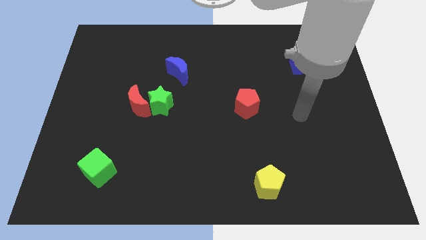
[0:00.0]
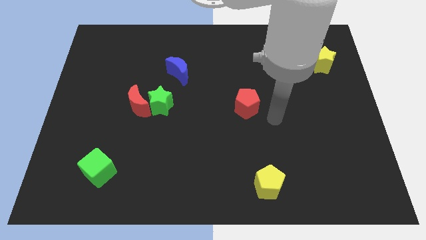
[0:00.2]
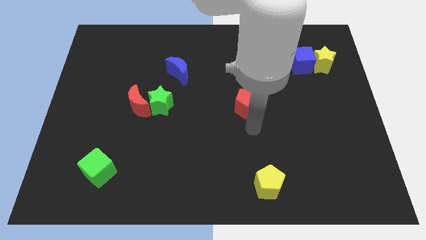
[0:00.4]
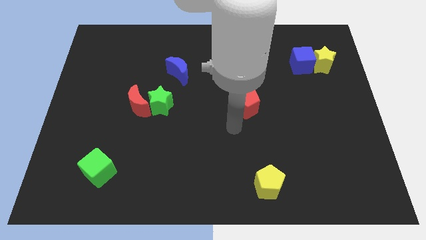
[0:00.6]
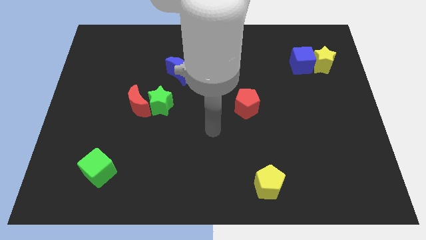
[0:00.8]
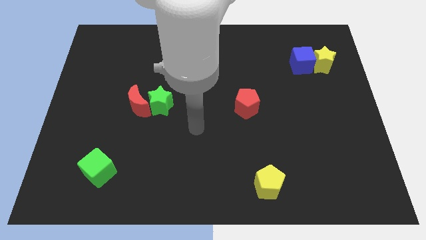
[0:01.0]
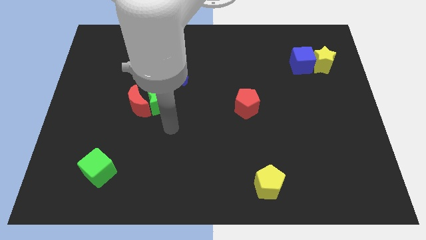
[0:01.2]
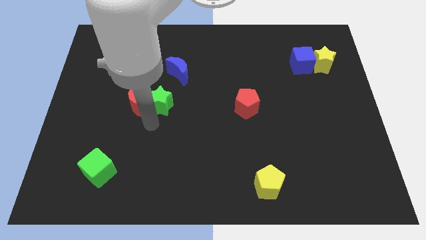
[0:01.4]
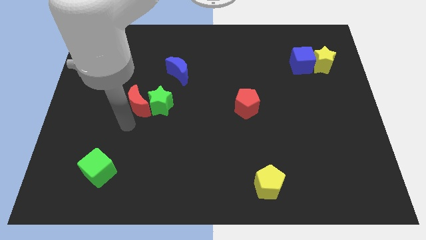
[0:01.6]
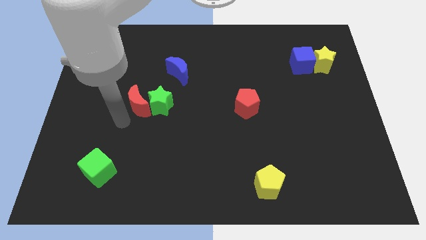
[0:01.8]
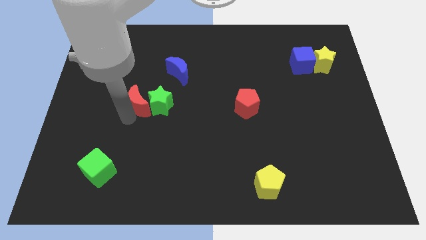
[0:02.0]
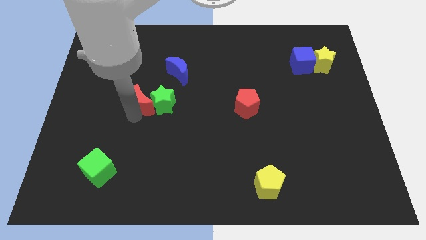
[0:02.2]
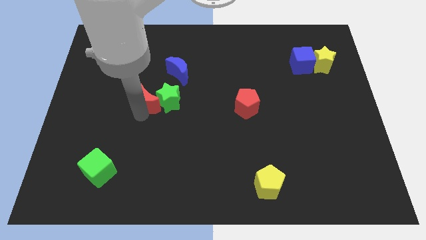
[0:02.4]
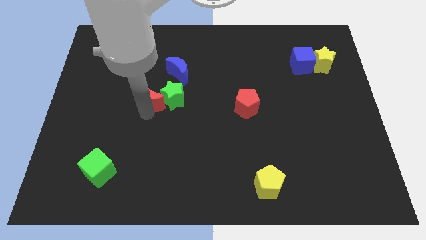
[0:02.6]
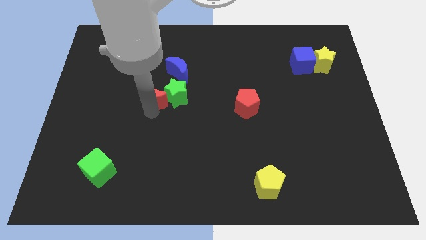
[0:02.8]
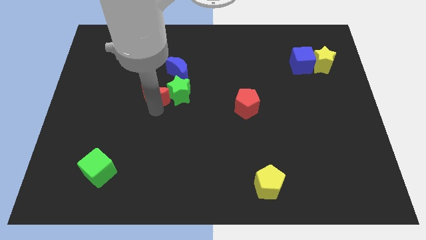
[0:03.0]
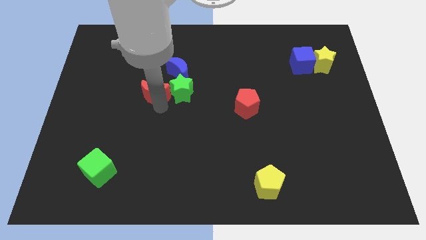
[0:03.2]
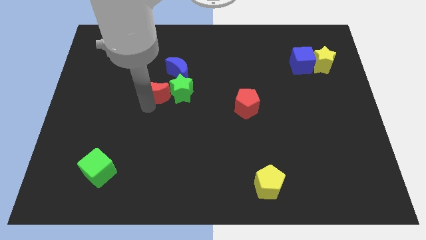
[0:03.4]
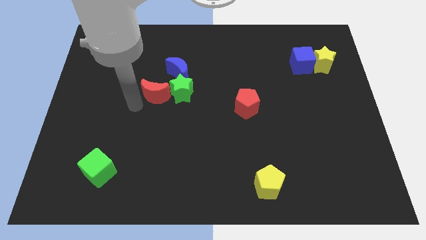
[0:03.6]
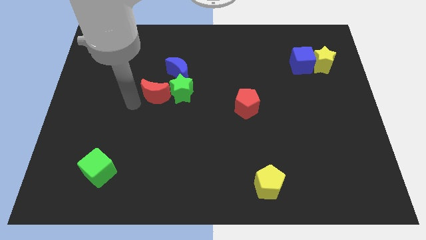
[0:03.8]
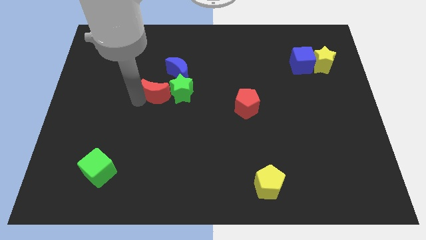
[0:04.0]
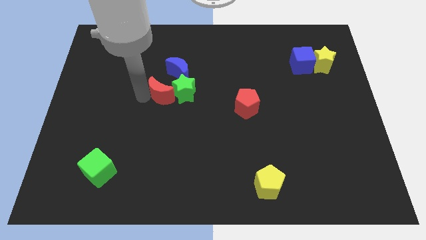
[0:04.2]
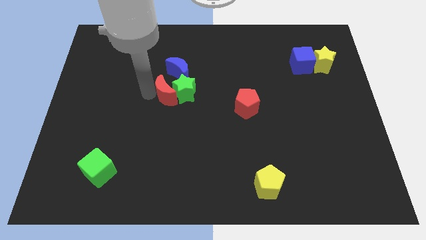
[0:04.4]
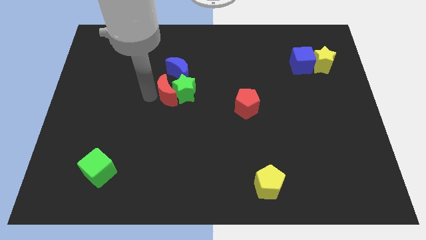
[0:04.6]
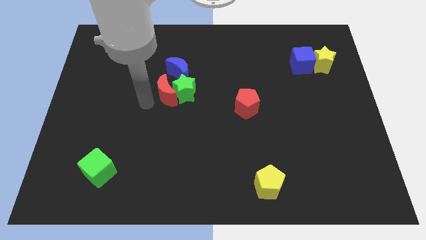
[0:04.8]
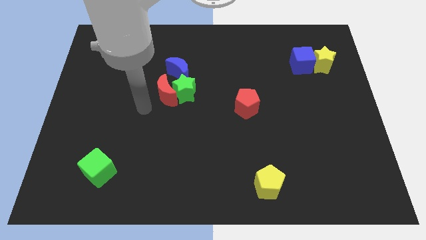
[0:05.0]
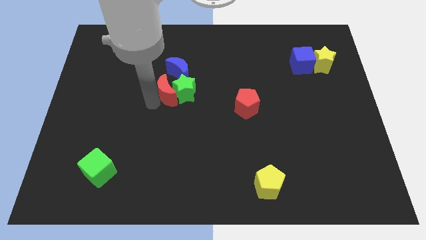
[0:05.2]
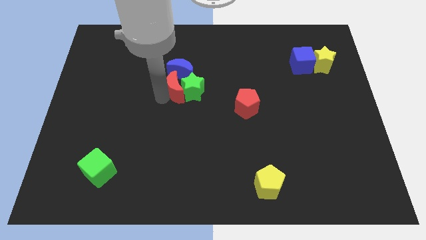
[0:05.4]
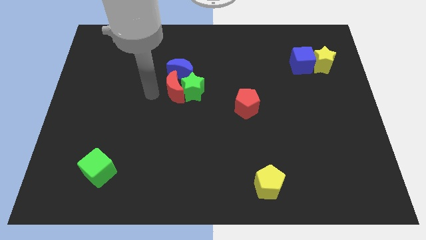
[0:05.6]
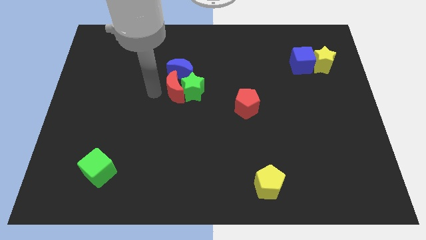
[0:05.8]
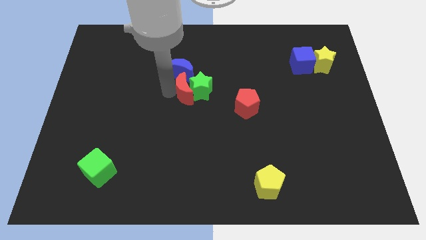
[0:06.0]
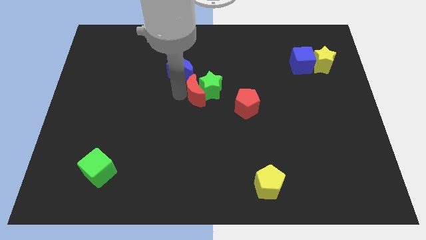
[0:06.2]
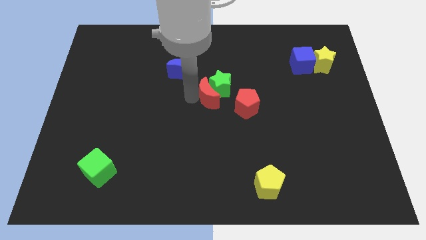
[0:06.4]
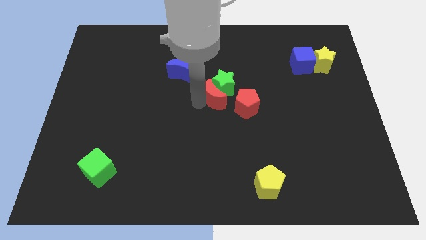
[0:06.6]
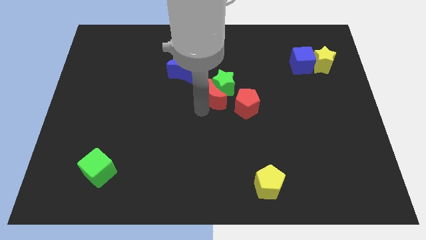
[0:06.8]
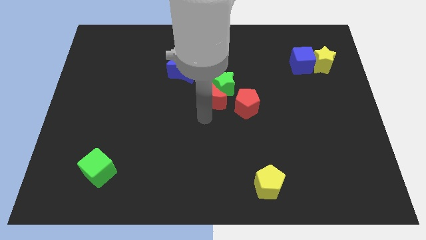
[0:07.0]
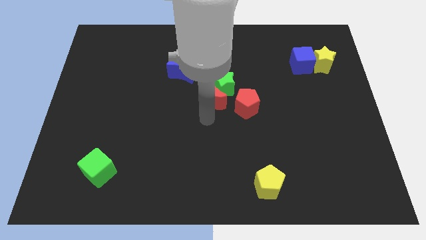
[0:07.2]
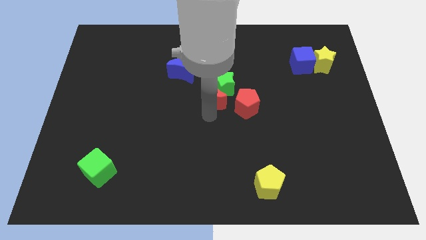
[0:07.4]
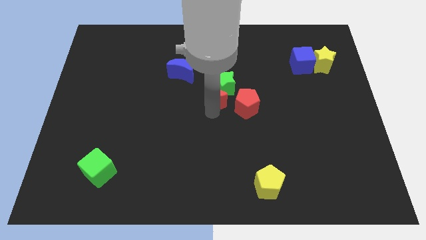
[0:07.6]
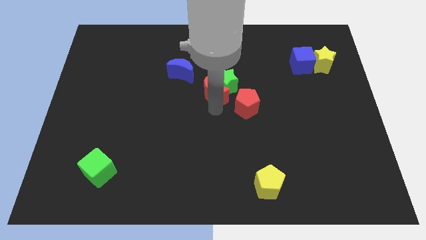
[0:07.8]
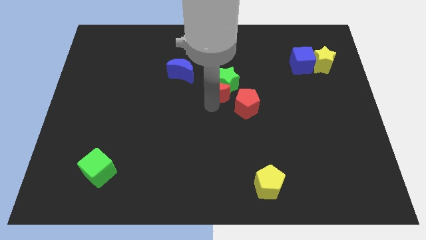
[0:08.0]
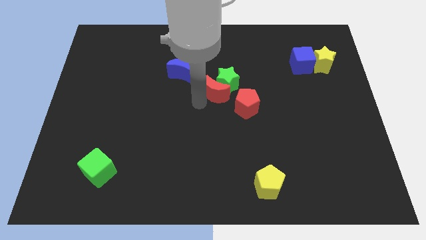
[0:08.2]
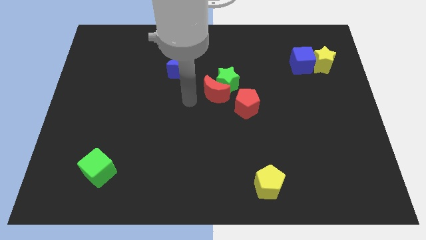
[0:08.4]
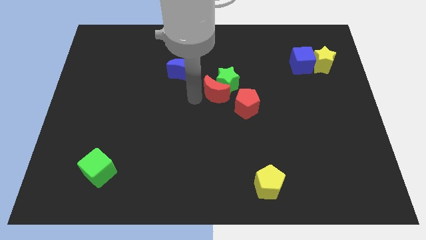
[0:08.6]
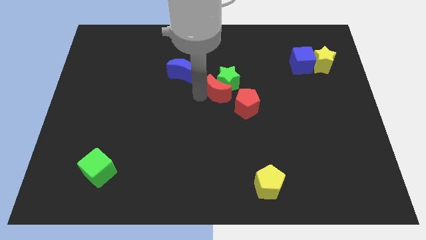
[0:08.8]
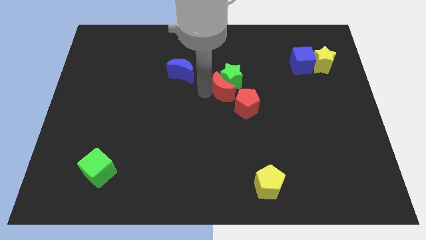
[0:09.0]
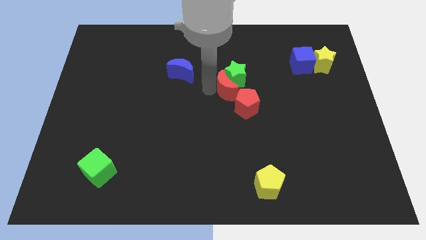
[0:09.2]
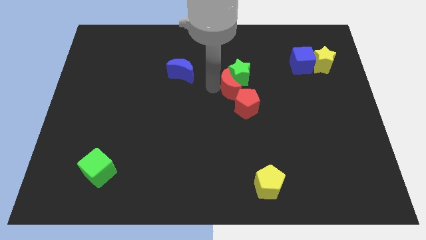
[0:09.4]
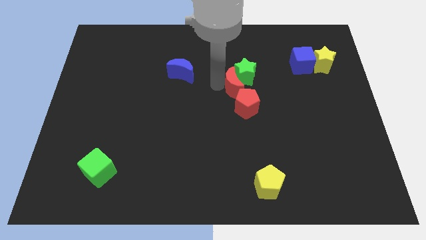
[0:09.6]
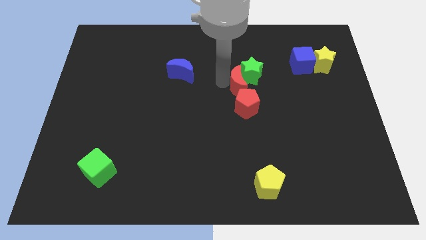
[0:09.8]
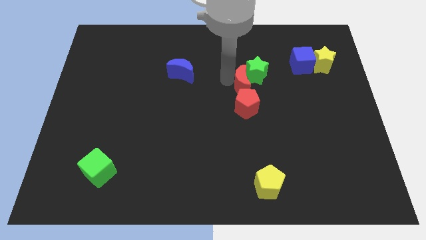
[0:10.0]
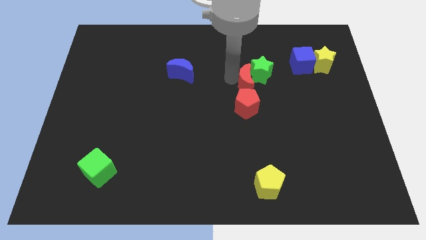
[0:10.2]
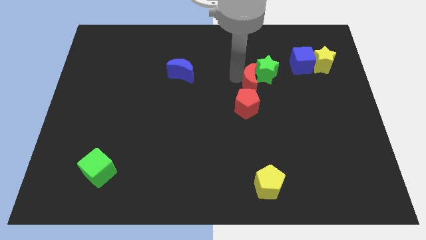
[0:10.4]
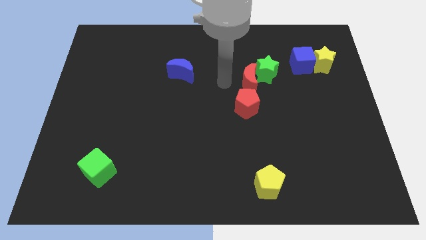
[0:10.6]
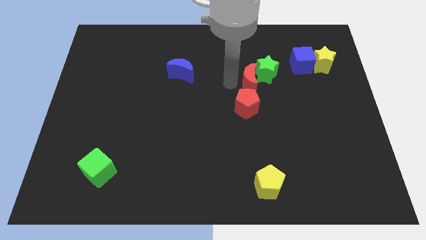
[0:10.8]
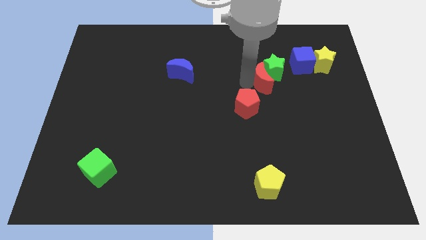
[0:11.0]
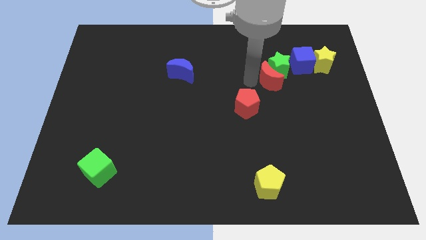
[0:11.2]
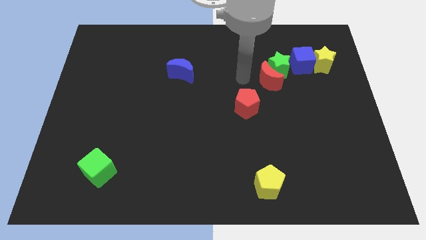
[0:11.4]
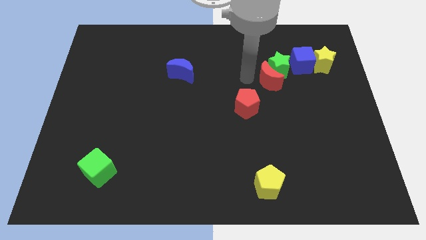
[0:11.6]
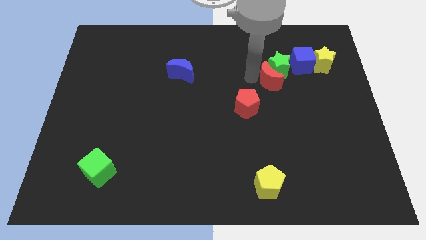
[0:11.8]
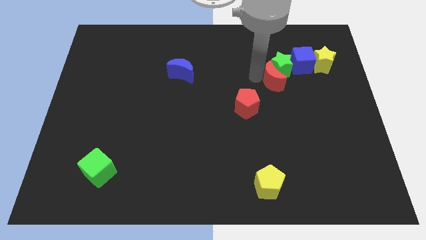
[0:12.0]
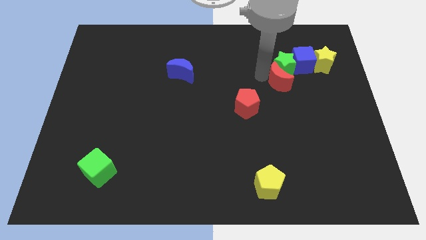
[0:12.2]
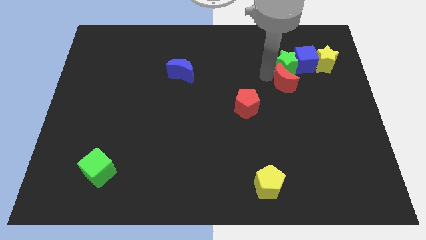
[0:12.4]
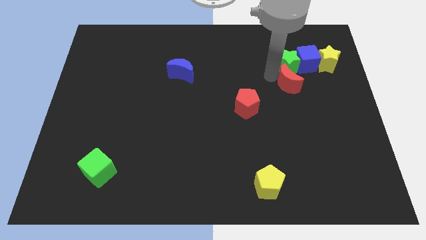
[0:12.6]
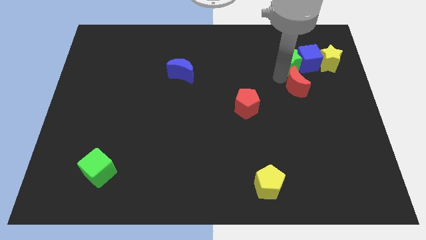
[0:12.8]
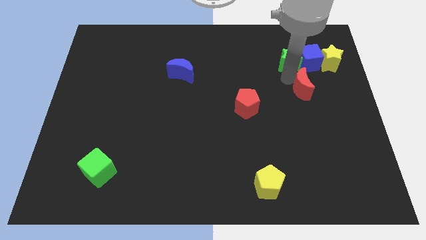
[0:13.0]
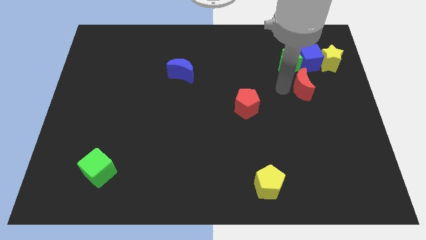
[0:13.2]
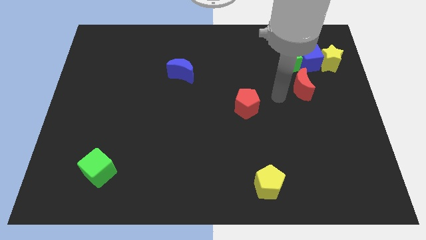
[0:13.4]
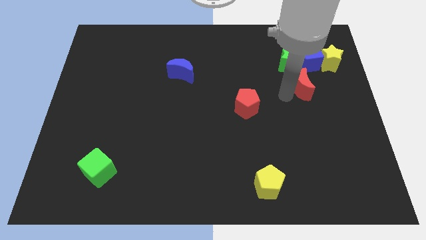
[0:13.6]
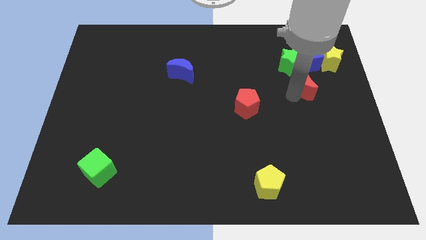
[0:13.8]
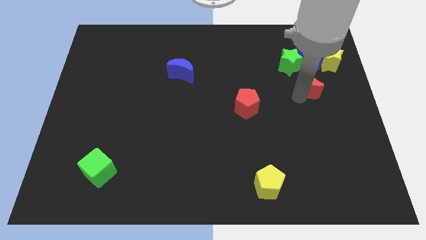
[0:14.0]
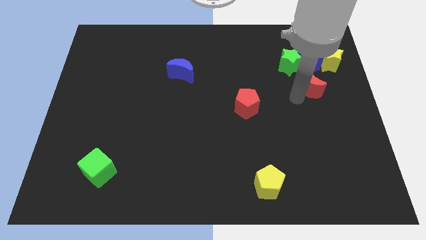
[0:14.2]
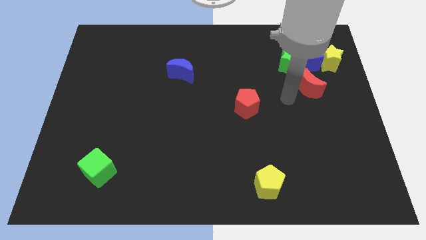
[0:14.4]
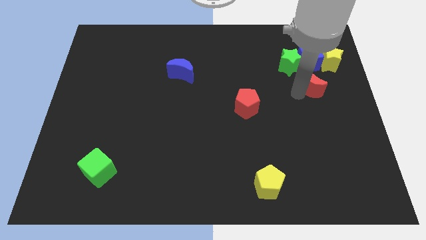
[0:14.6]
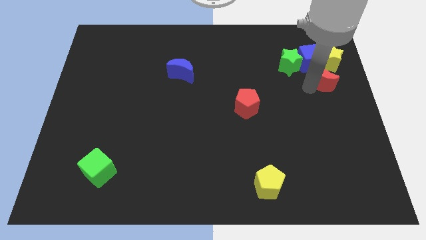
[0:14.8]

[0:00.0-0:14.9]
push the red moon to the bottom right of the blue cube
